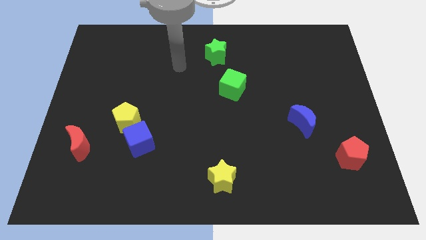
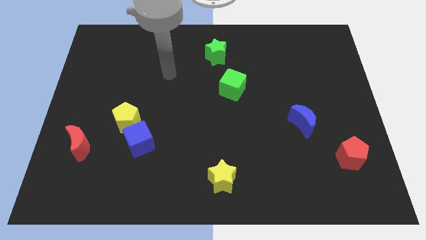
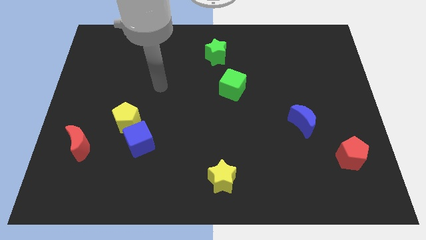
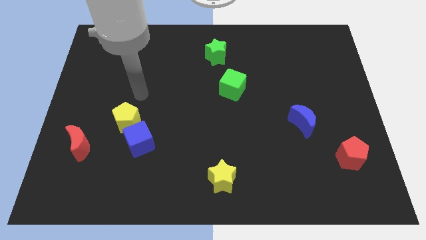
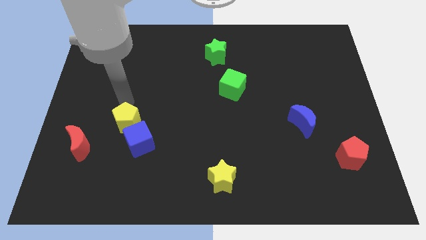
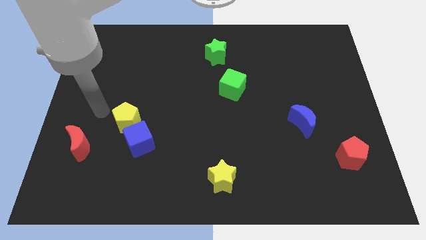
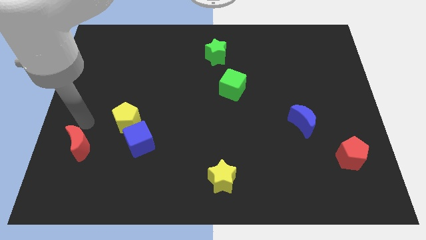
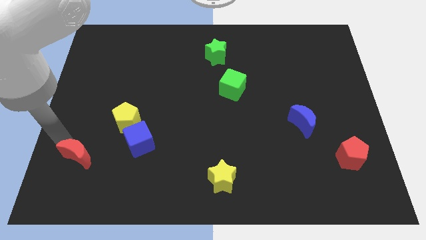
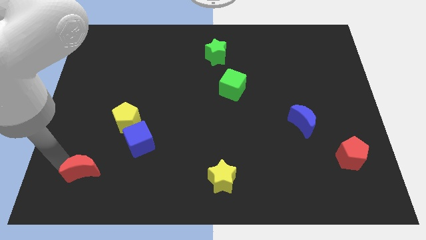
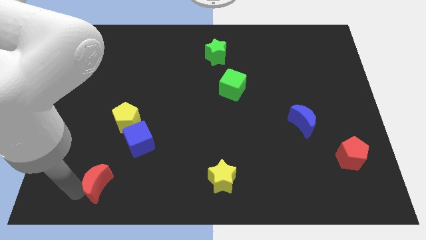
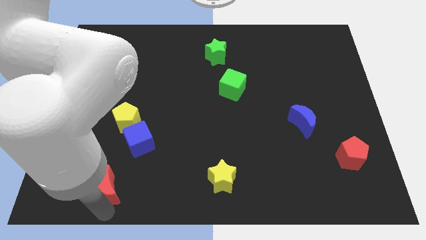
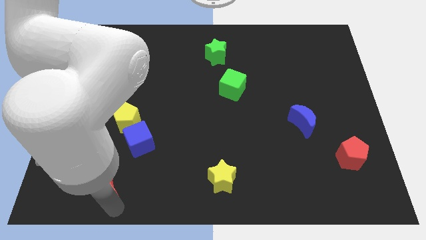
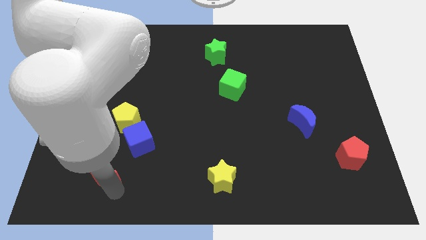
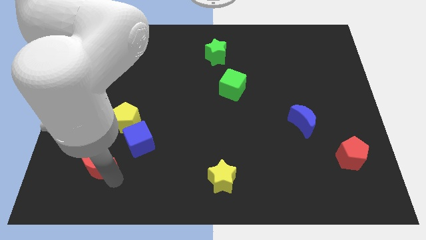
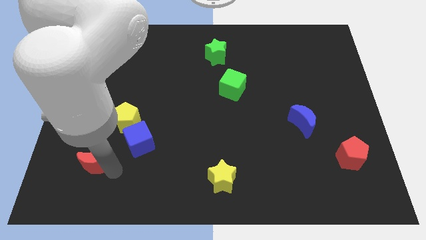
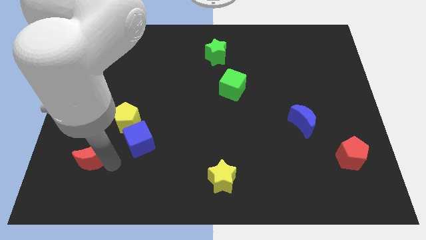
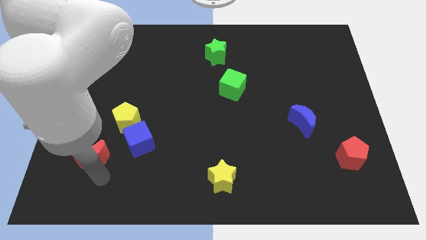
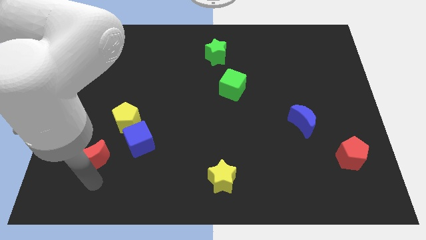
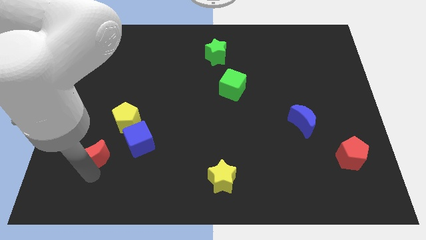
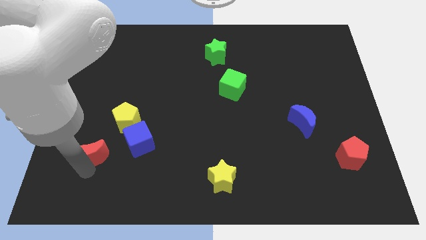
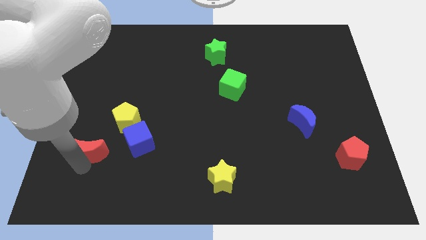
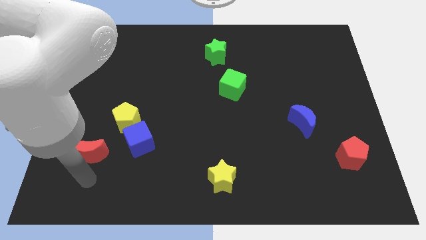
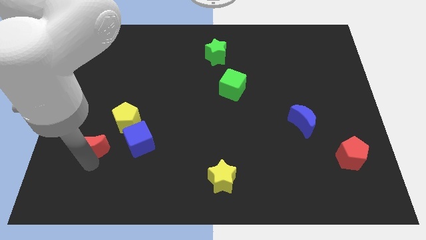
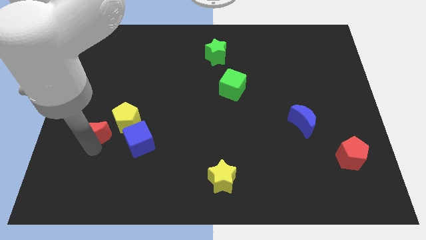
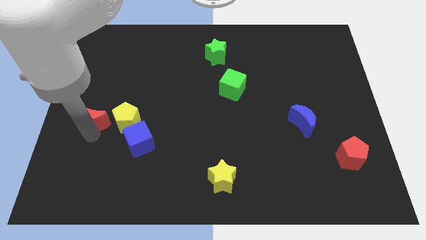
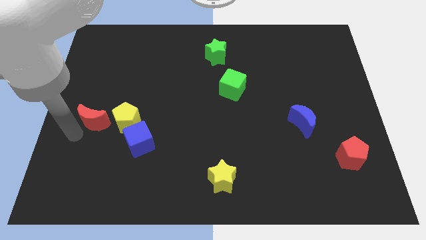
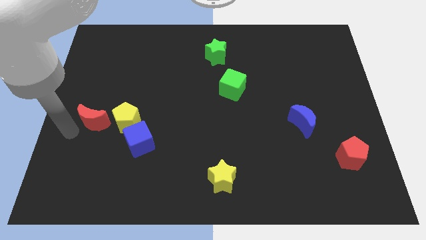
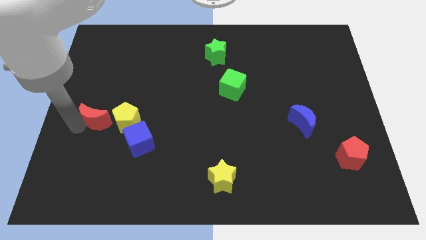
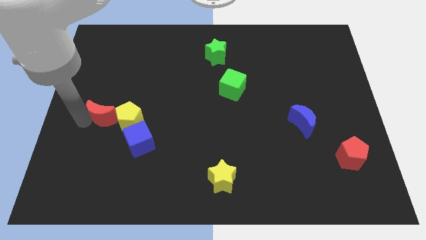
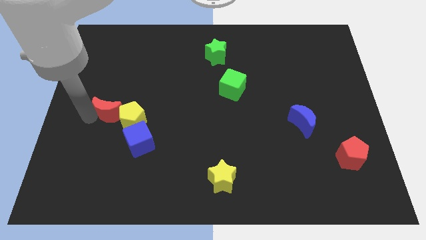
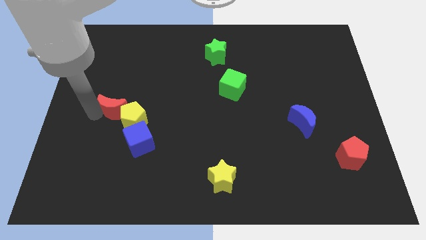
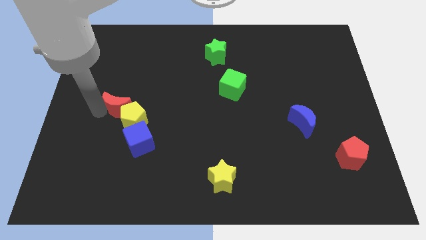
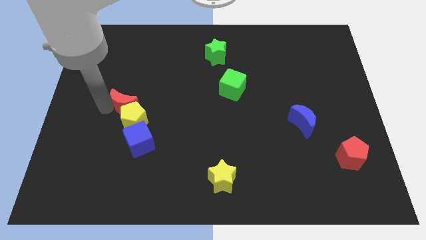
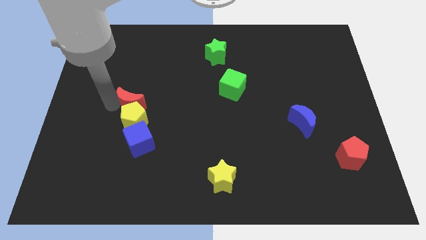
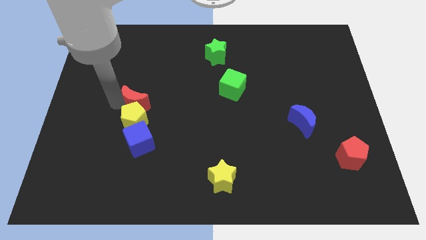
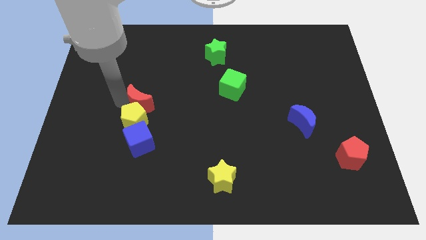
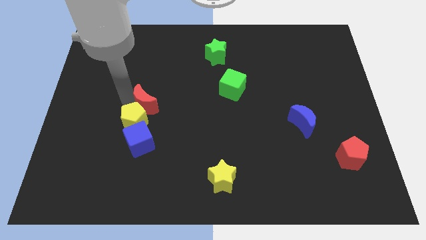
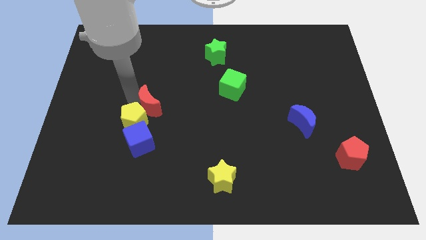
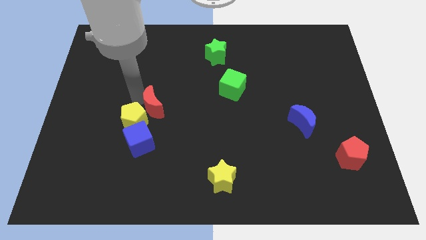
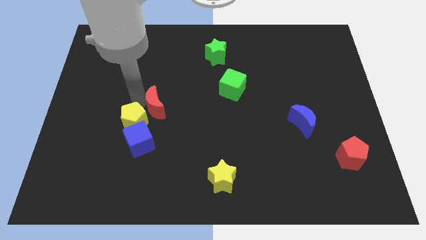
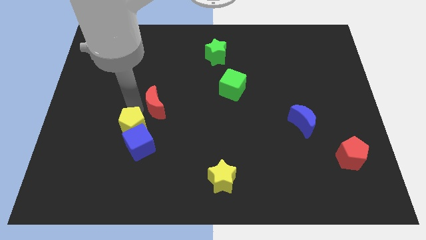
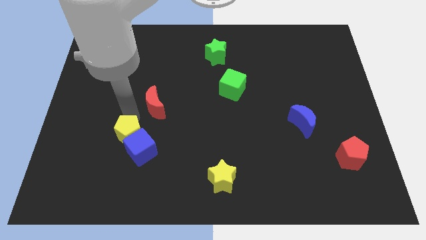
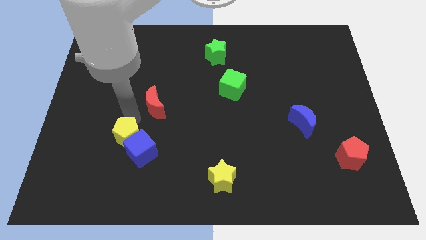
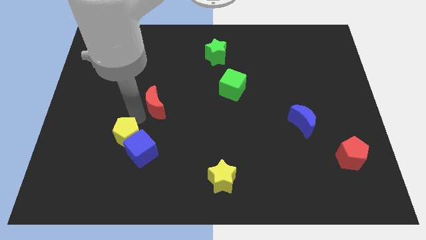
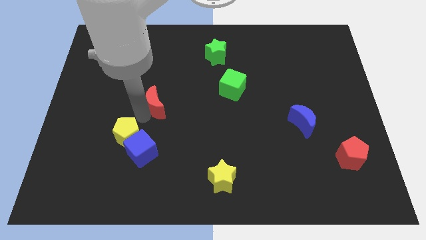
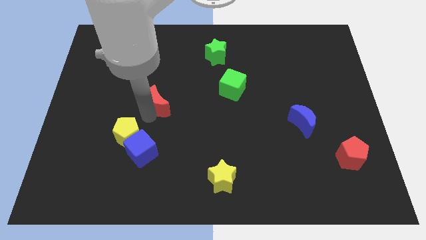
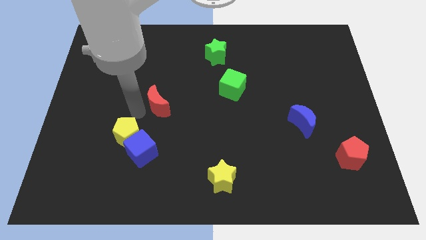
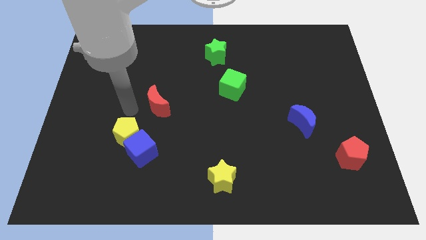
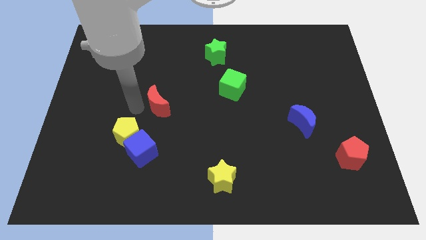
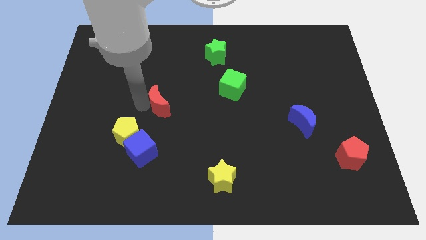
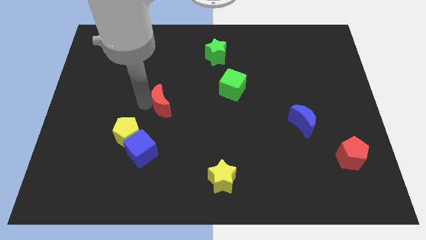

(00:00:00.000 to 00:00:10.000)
slide the red moon to the middle

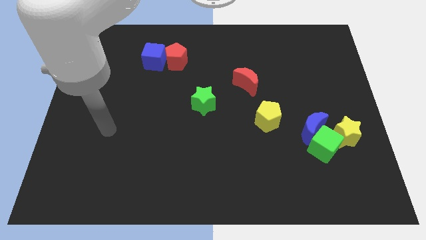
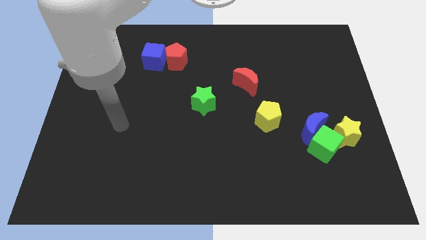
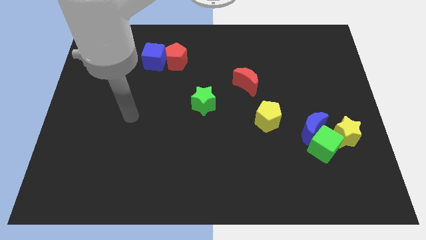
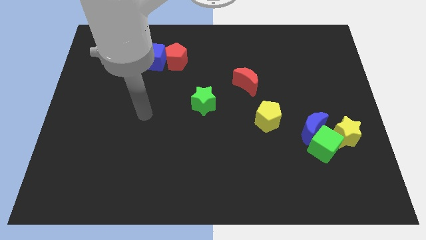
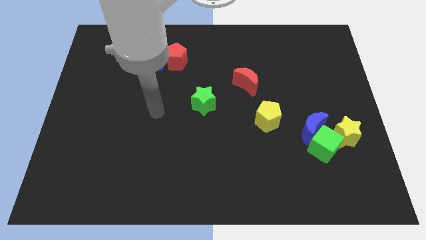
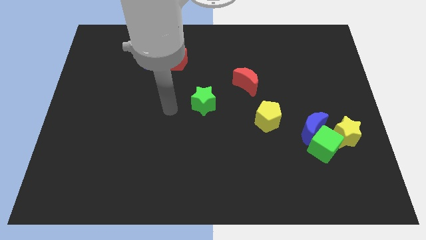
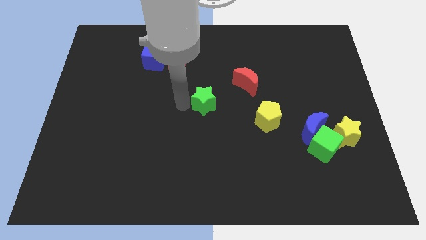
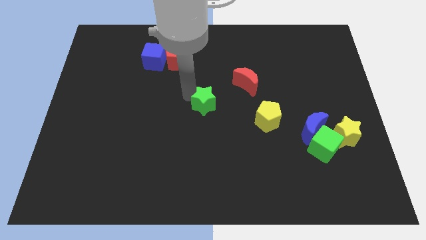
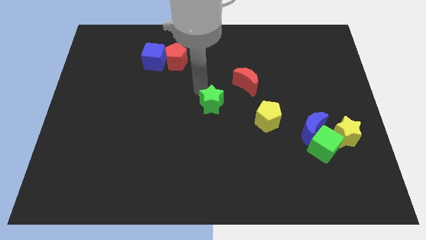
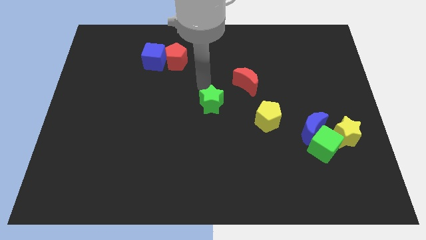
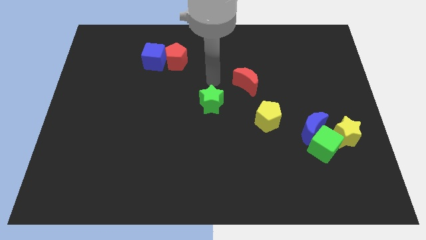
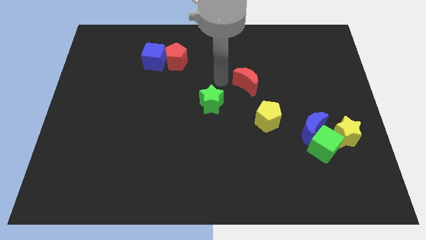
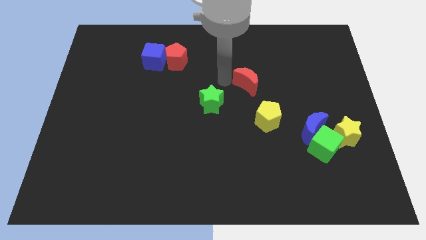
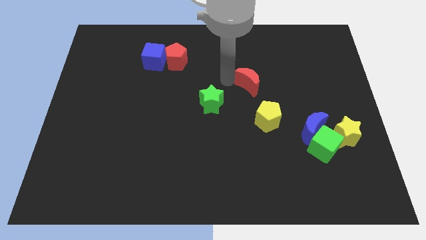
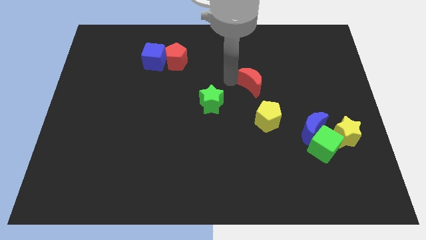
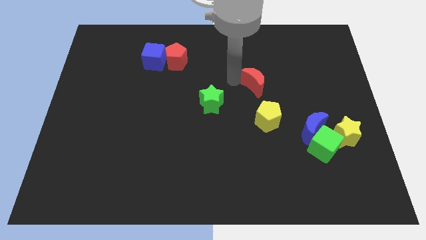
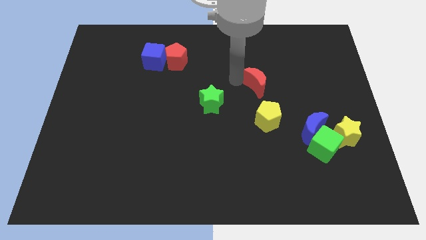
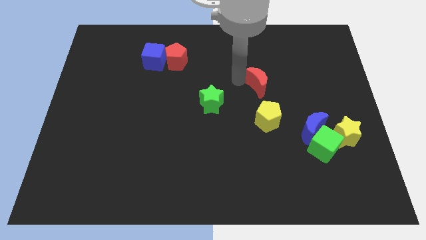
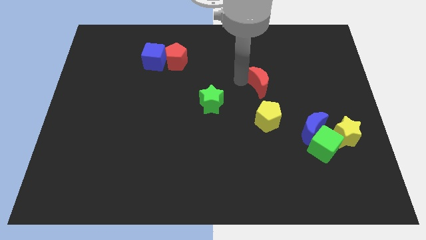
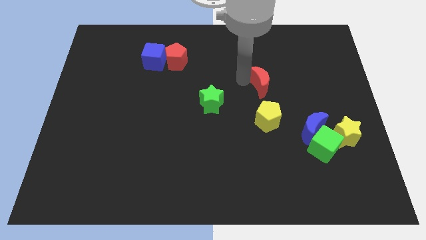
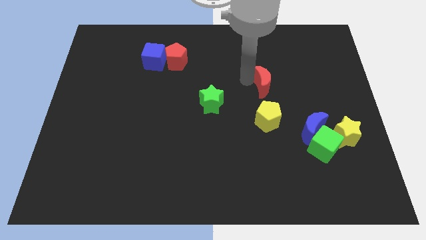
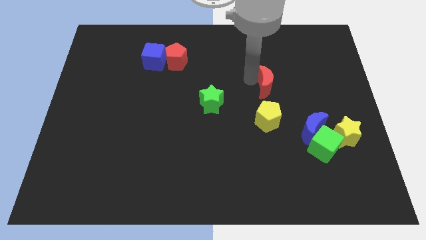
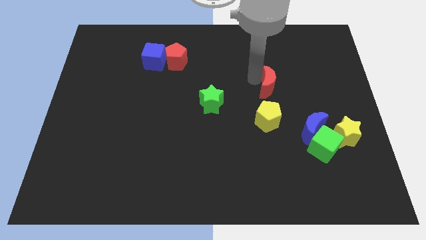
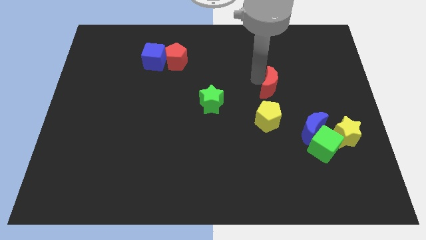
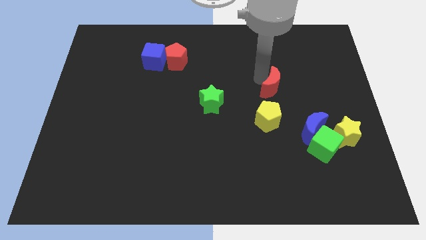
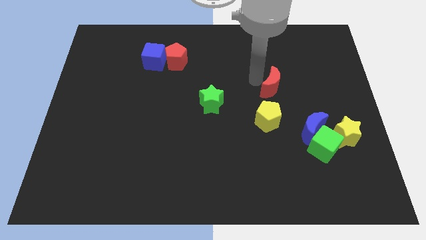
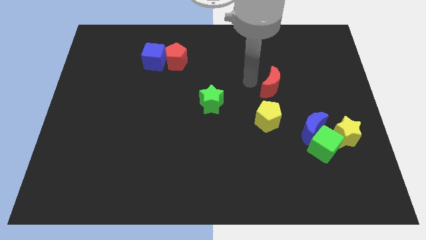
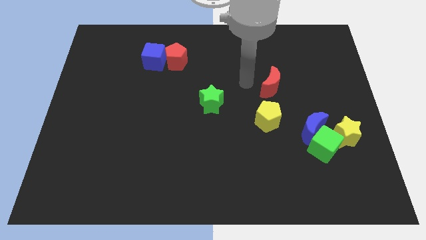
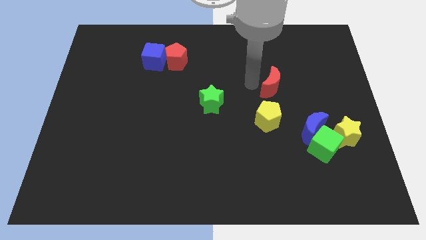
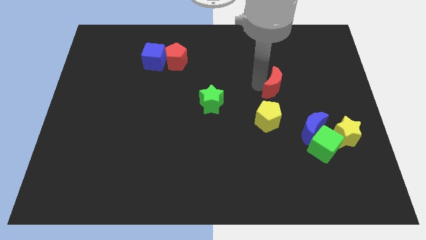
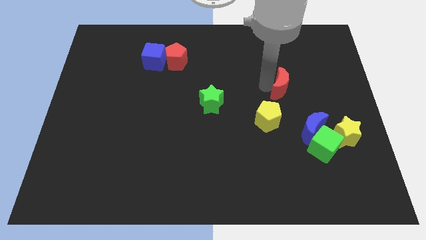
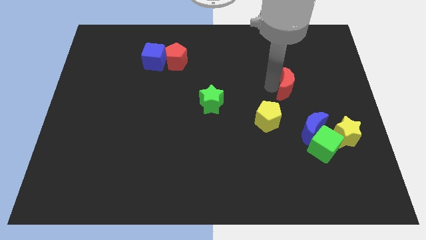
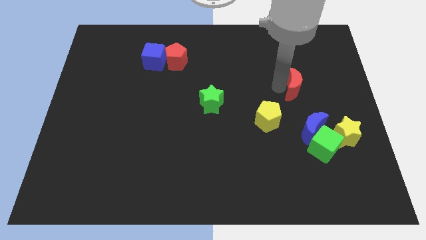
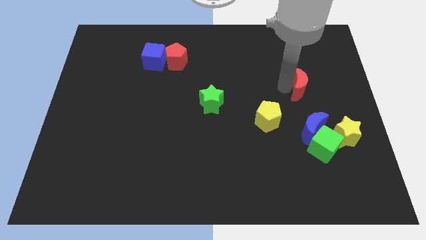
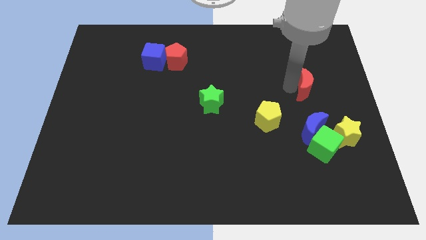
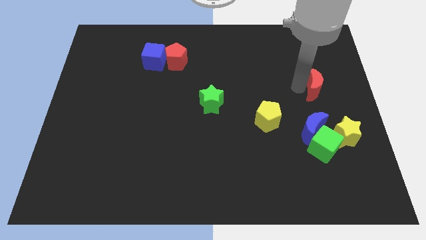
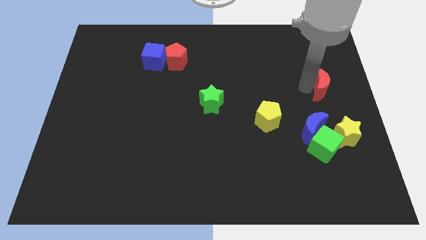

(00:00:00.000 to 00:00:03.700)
put the red moon to the center right
